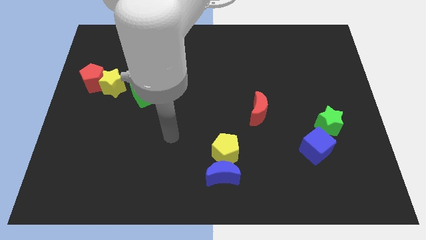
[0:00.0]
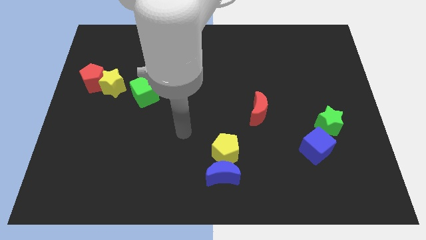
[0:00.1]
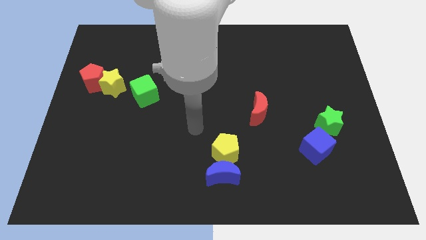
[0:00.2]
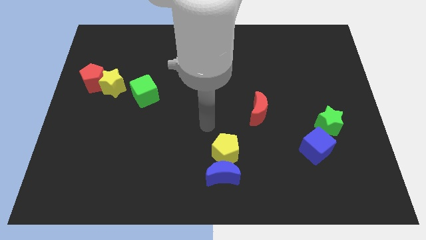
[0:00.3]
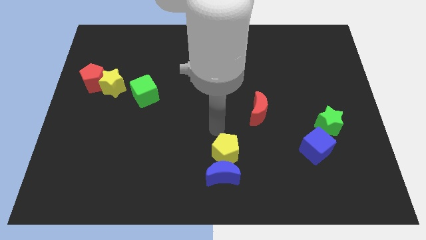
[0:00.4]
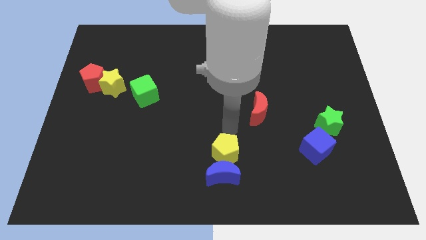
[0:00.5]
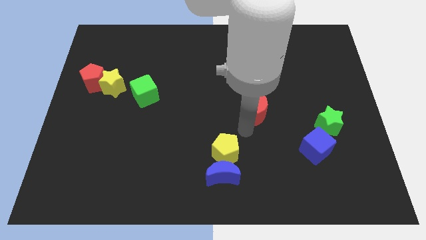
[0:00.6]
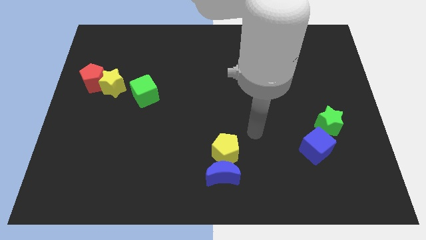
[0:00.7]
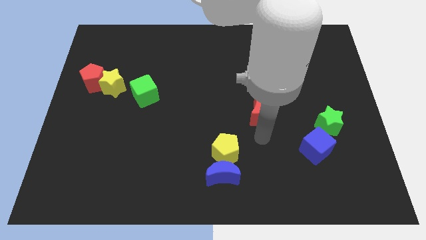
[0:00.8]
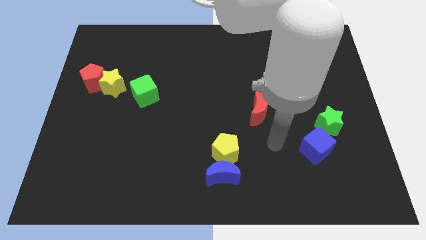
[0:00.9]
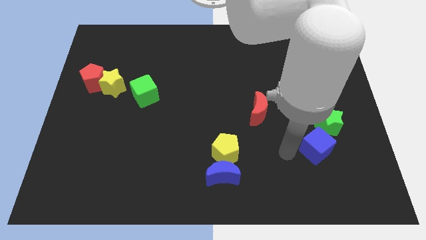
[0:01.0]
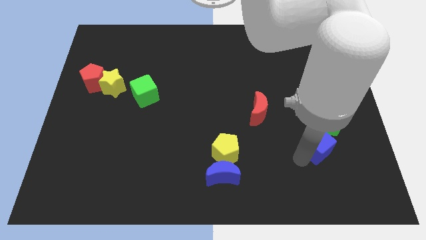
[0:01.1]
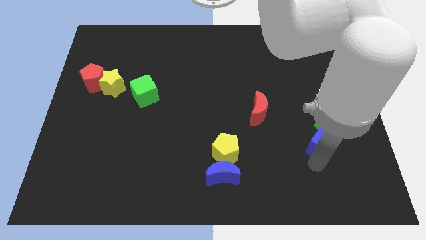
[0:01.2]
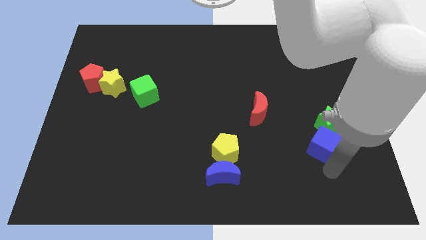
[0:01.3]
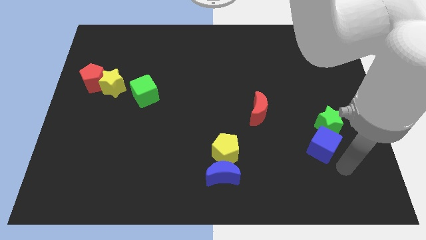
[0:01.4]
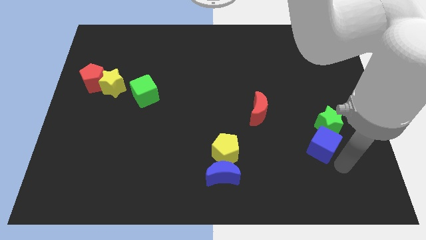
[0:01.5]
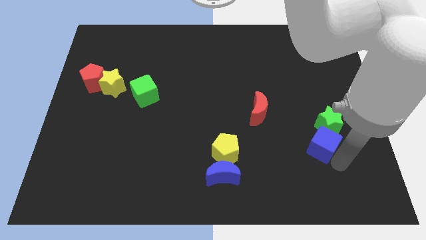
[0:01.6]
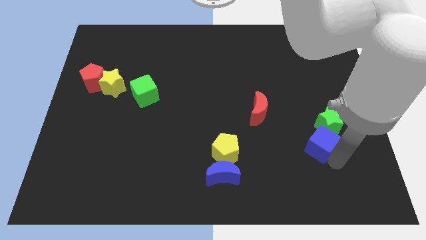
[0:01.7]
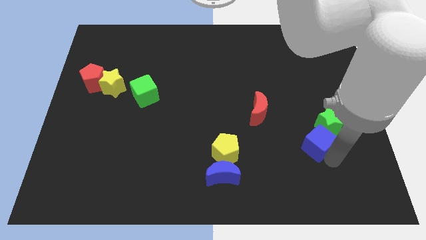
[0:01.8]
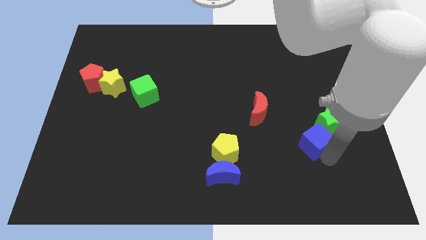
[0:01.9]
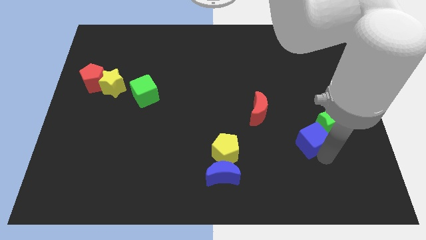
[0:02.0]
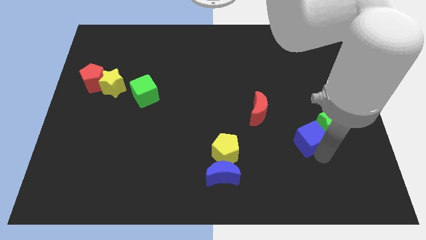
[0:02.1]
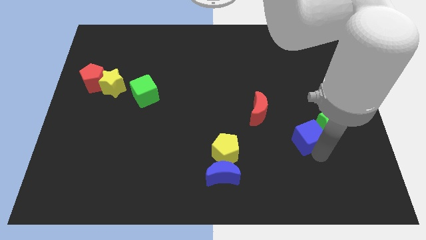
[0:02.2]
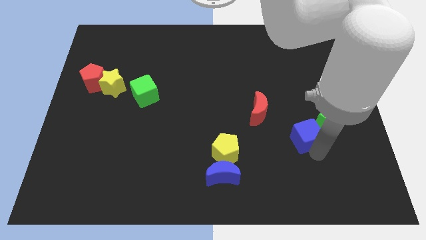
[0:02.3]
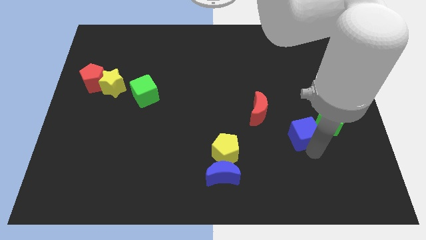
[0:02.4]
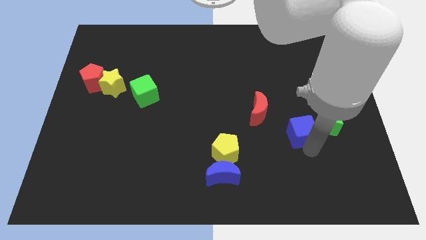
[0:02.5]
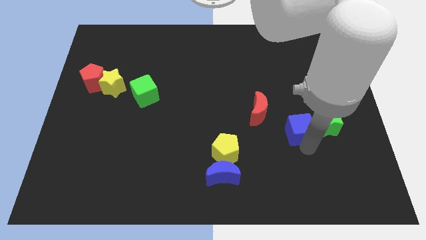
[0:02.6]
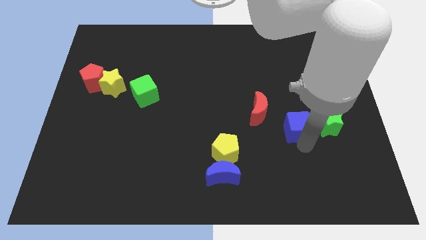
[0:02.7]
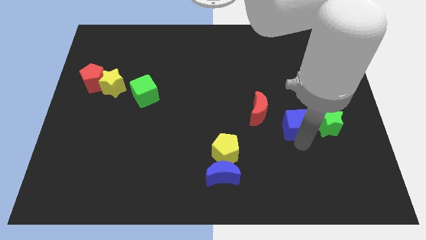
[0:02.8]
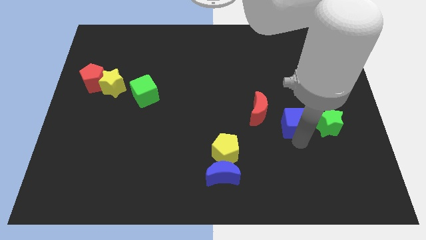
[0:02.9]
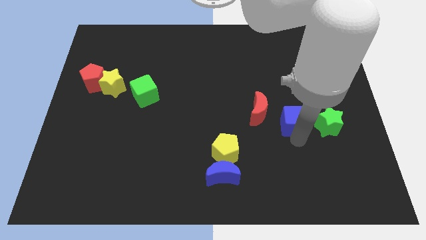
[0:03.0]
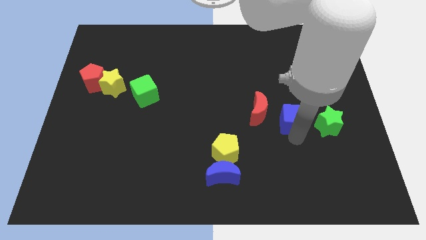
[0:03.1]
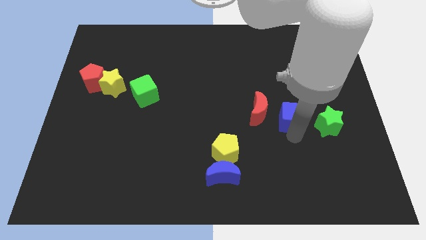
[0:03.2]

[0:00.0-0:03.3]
push the blue cube a little bit up

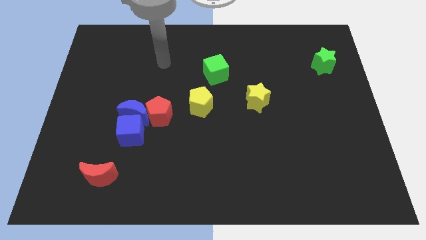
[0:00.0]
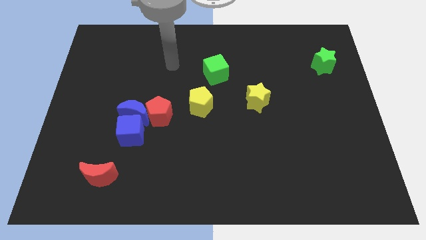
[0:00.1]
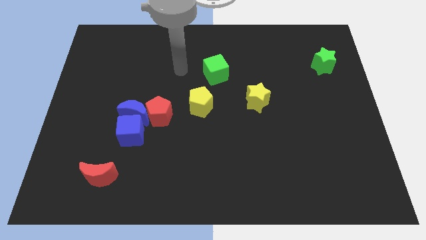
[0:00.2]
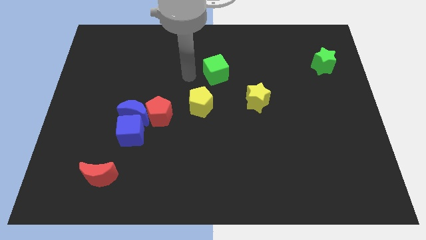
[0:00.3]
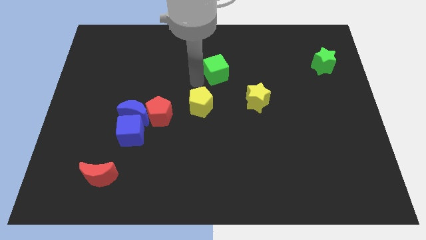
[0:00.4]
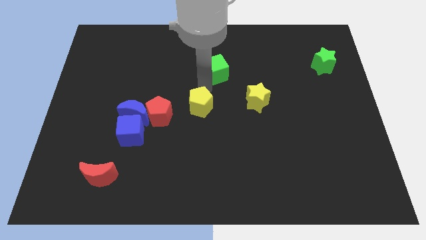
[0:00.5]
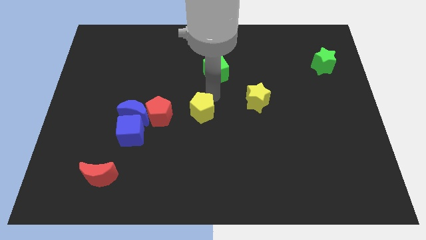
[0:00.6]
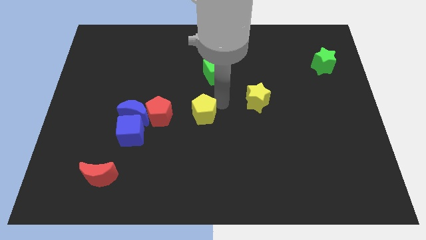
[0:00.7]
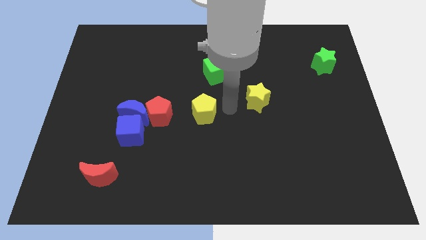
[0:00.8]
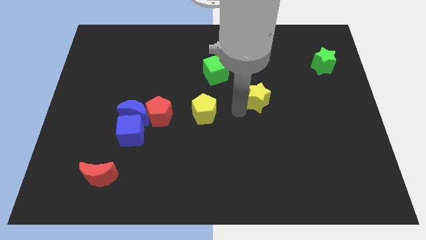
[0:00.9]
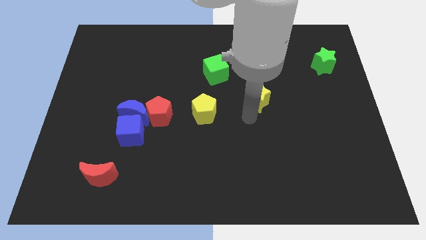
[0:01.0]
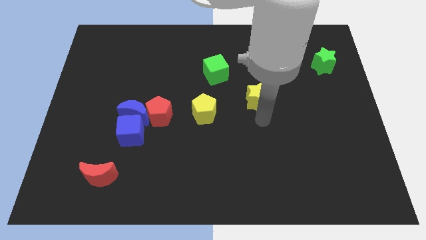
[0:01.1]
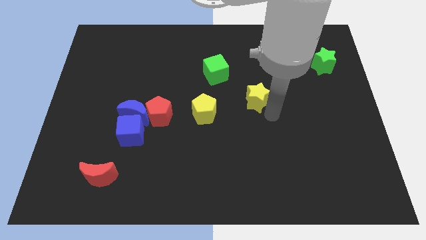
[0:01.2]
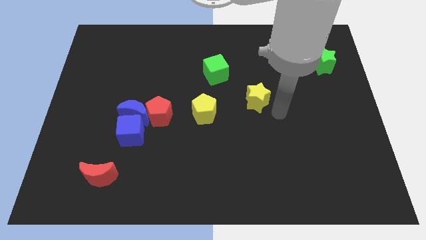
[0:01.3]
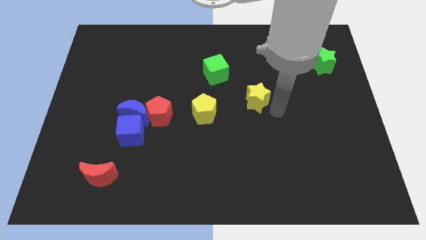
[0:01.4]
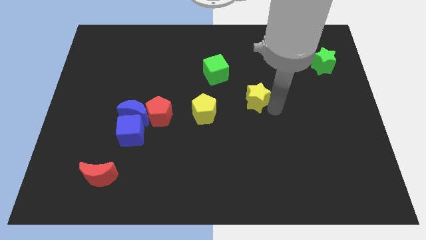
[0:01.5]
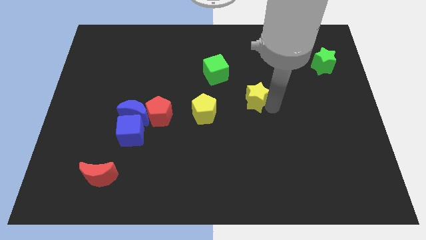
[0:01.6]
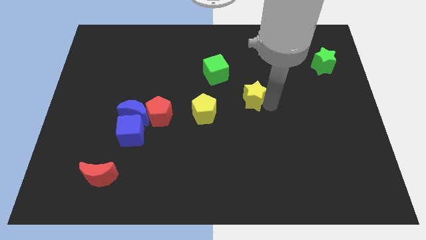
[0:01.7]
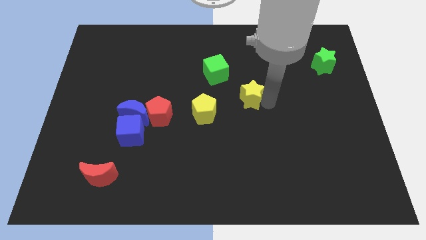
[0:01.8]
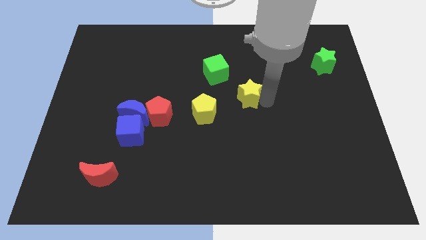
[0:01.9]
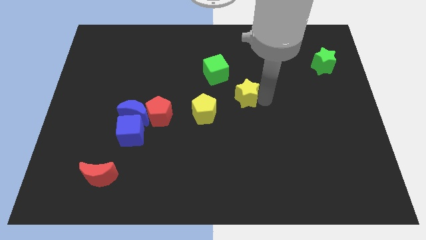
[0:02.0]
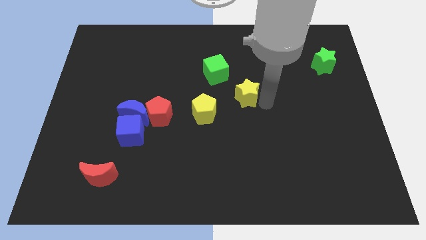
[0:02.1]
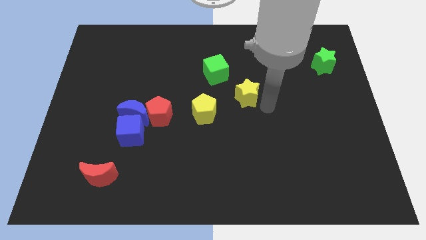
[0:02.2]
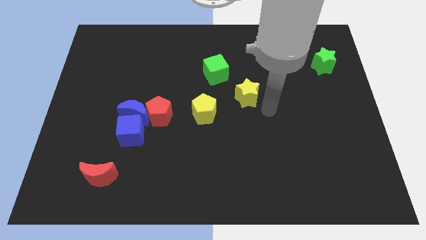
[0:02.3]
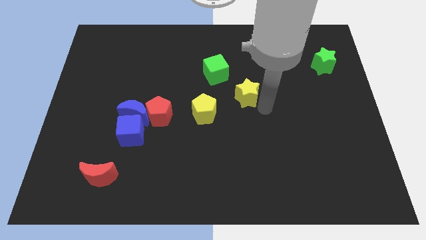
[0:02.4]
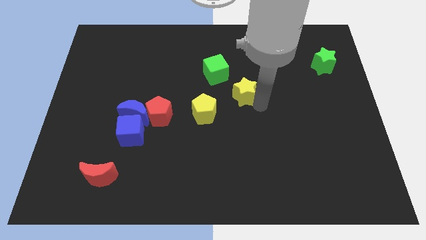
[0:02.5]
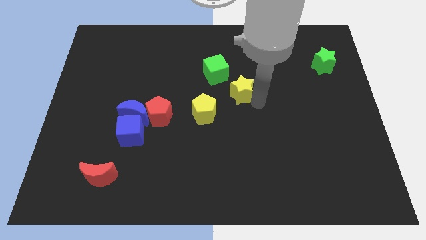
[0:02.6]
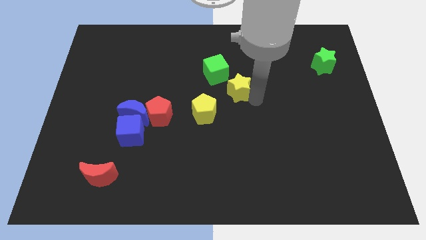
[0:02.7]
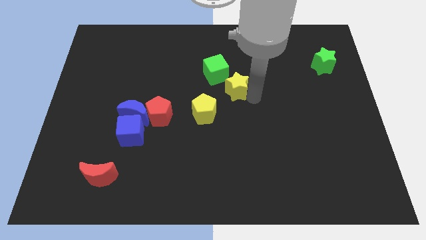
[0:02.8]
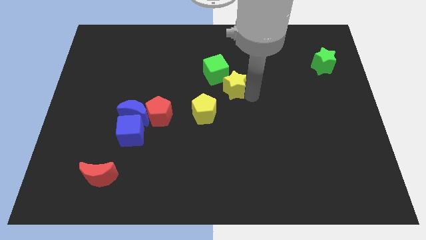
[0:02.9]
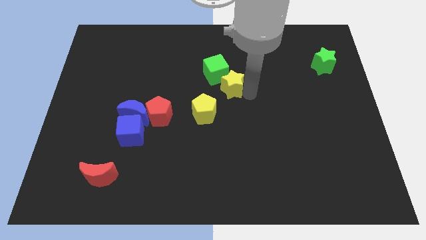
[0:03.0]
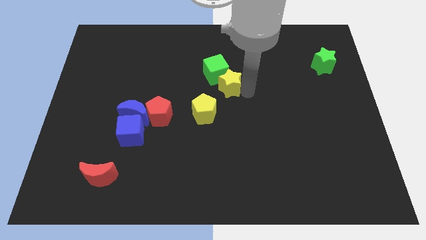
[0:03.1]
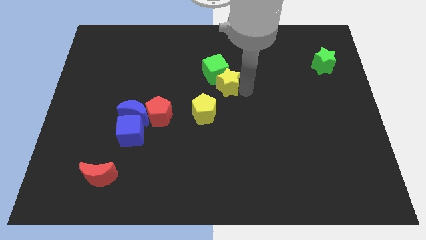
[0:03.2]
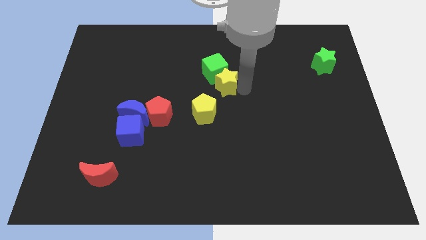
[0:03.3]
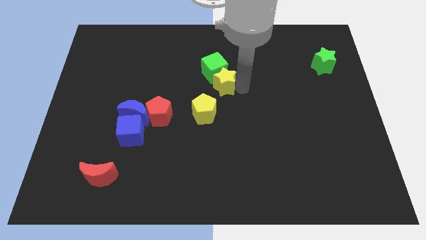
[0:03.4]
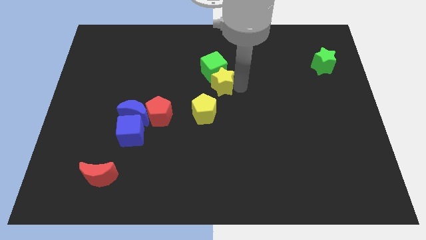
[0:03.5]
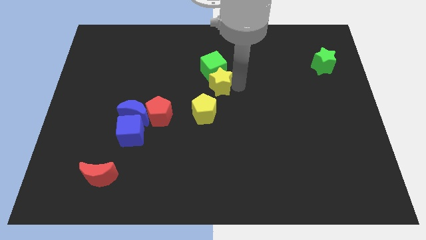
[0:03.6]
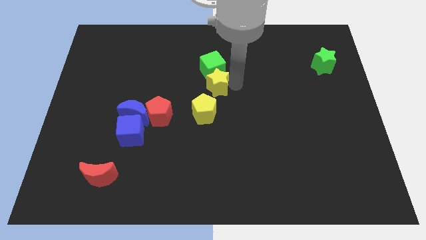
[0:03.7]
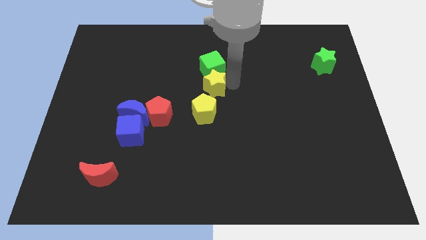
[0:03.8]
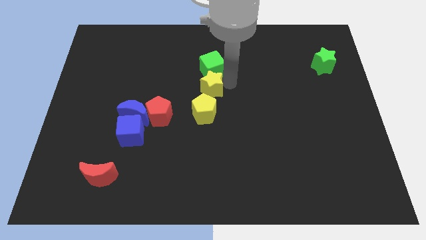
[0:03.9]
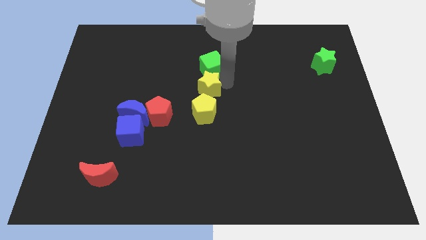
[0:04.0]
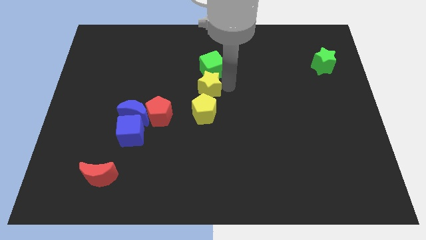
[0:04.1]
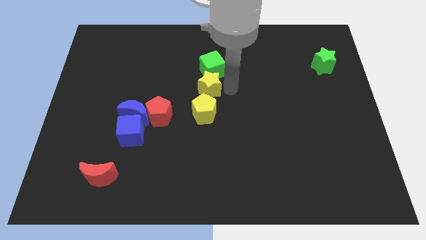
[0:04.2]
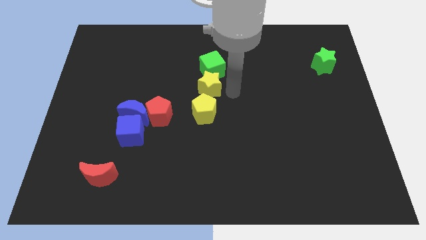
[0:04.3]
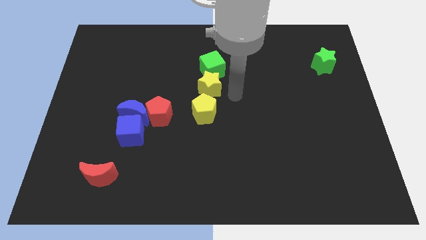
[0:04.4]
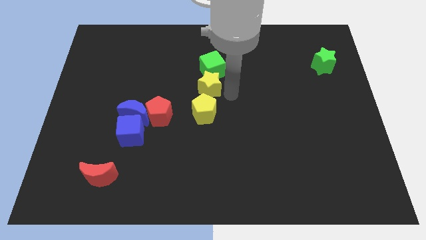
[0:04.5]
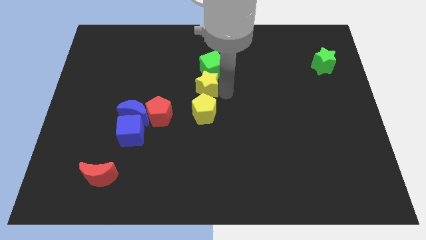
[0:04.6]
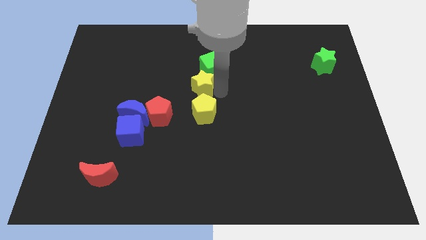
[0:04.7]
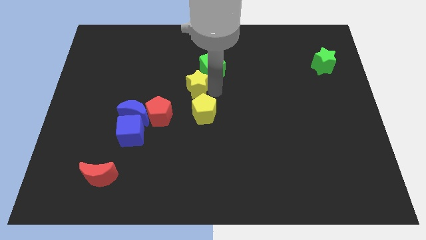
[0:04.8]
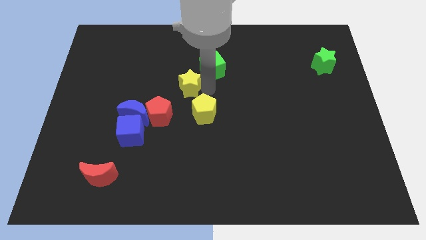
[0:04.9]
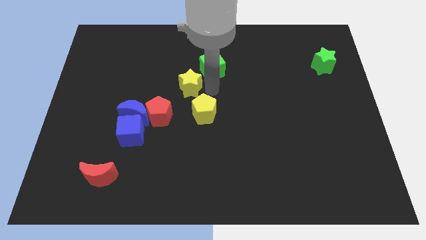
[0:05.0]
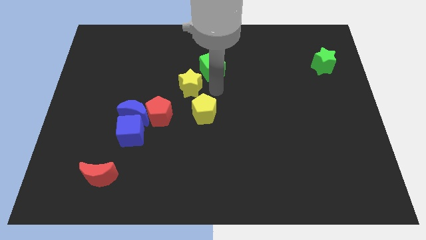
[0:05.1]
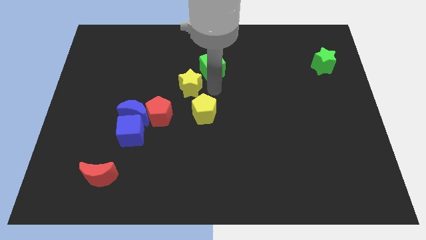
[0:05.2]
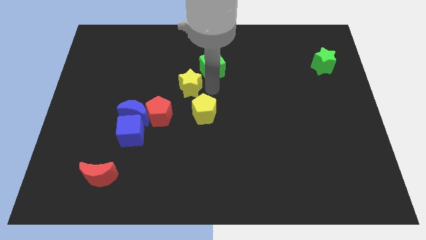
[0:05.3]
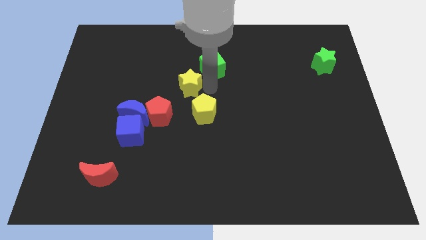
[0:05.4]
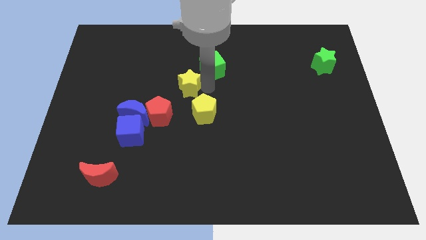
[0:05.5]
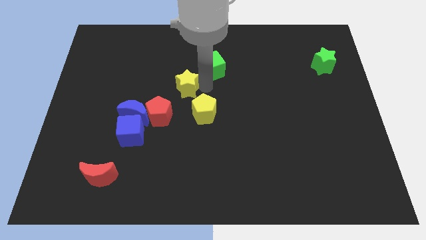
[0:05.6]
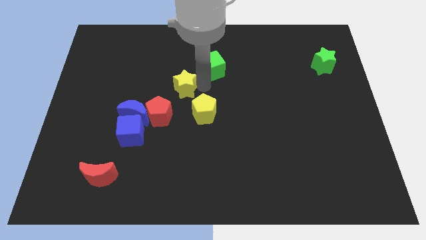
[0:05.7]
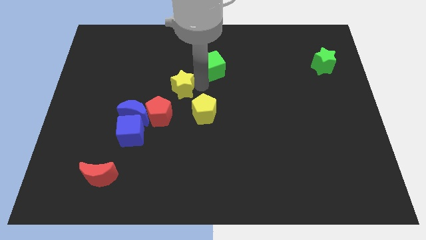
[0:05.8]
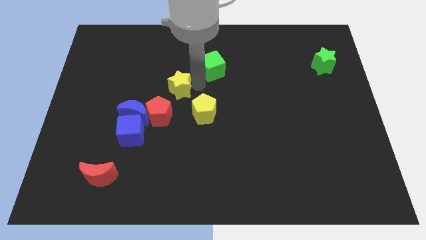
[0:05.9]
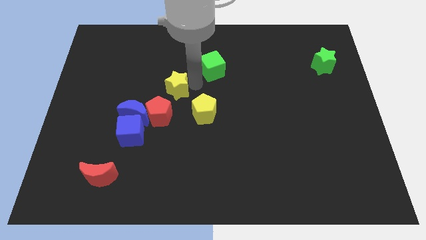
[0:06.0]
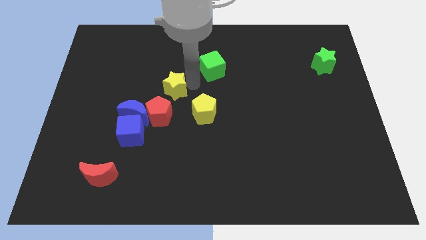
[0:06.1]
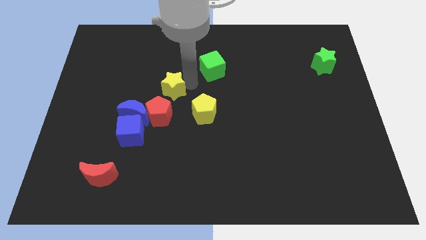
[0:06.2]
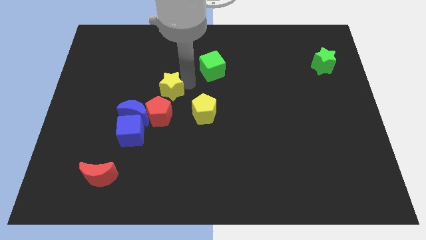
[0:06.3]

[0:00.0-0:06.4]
push the yellow star left
